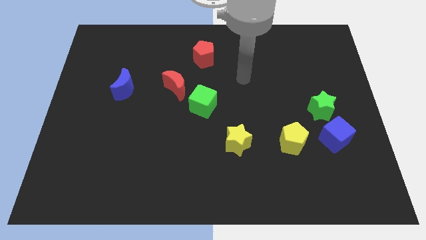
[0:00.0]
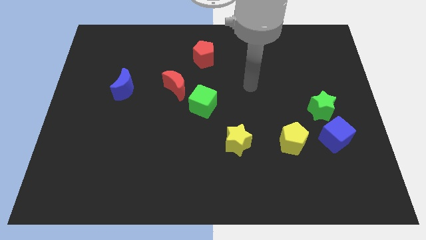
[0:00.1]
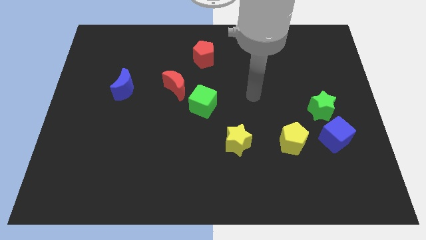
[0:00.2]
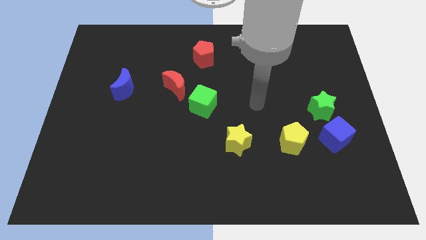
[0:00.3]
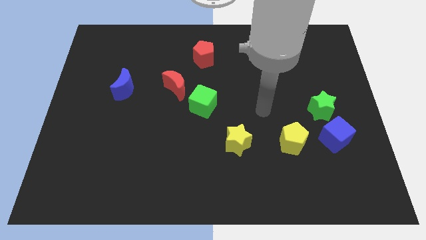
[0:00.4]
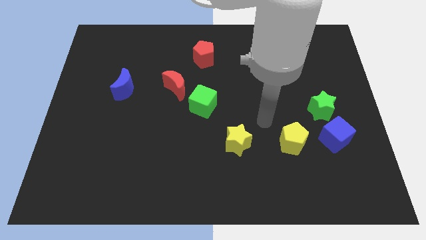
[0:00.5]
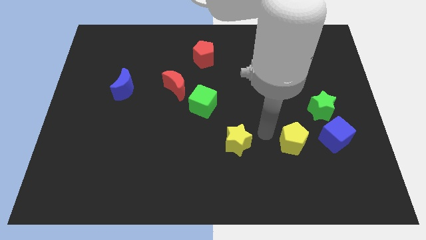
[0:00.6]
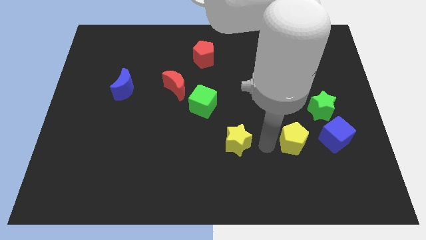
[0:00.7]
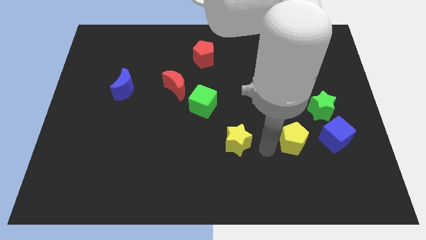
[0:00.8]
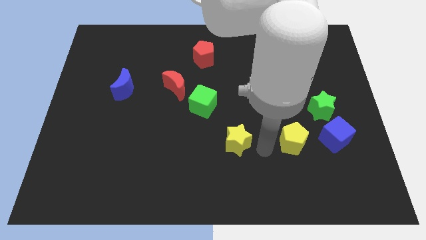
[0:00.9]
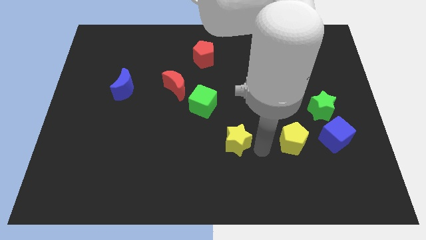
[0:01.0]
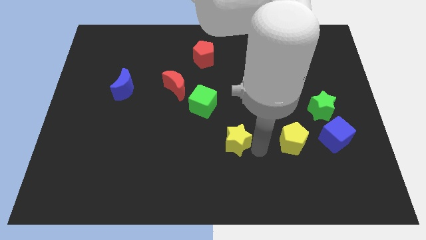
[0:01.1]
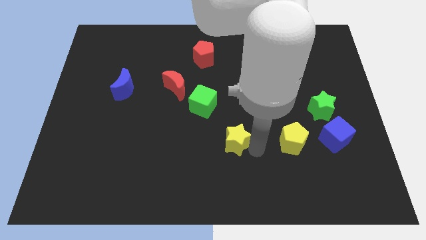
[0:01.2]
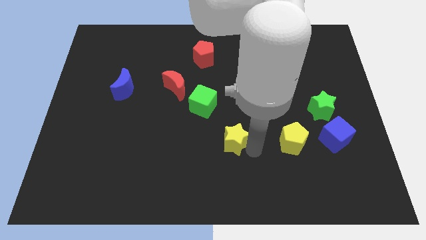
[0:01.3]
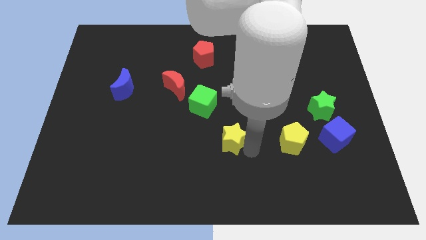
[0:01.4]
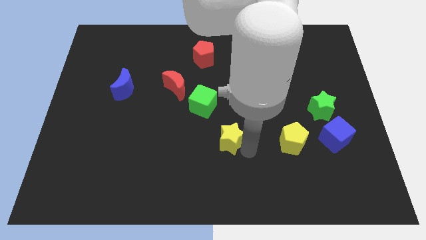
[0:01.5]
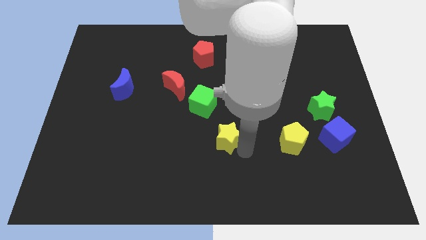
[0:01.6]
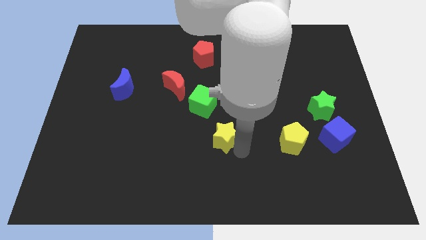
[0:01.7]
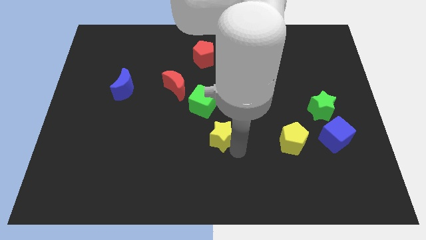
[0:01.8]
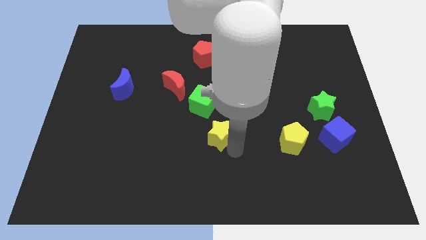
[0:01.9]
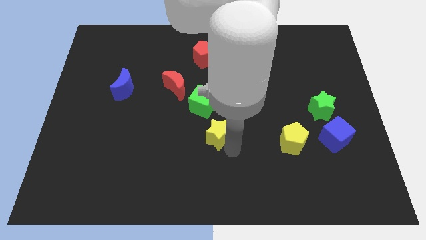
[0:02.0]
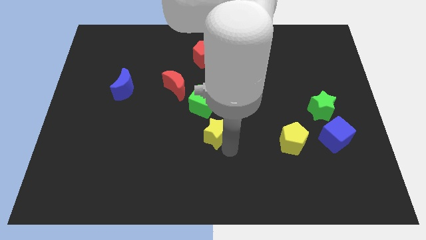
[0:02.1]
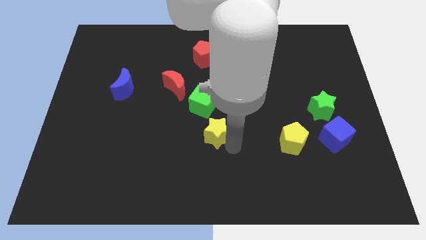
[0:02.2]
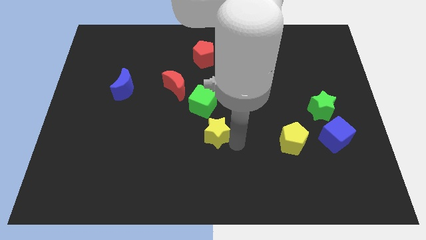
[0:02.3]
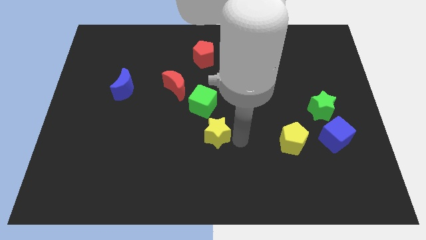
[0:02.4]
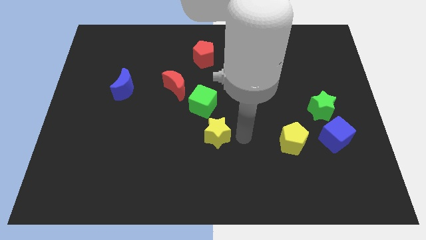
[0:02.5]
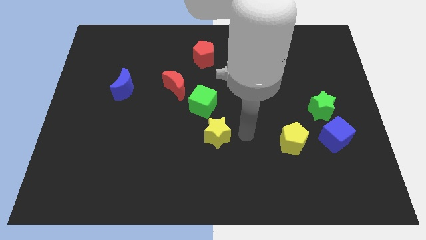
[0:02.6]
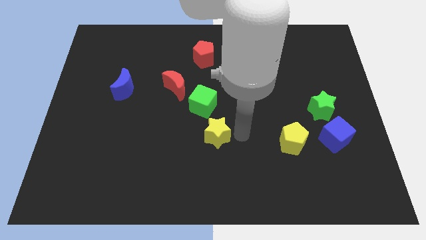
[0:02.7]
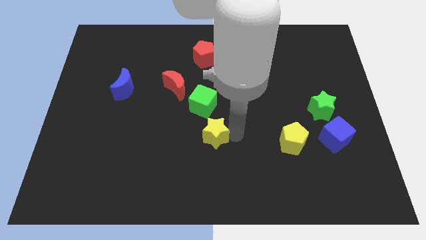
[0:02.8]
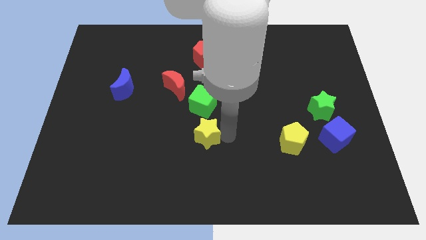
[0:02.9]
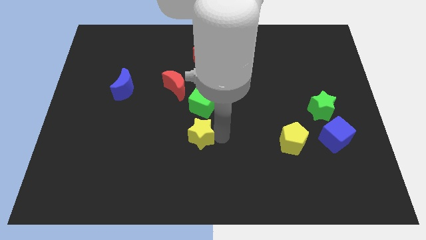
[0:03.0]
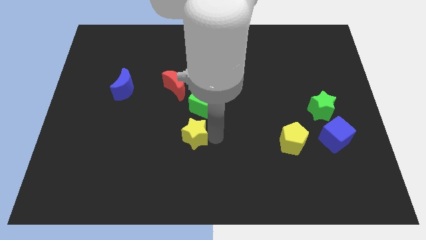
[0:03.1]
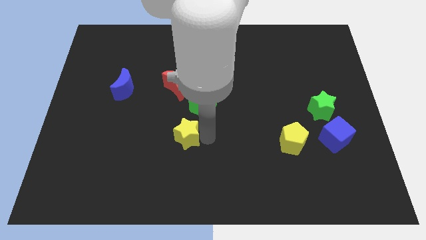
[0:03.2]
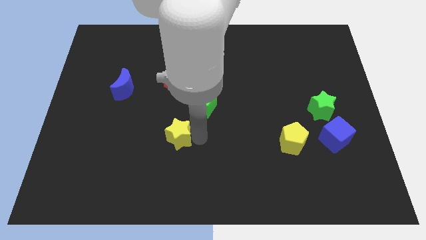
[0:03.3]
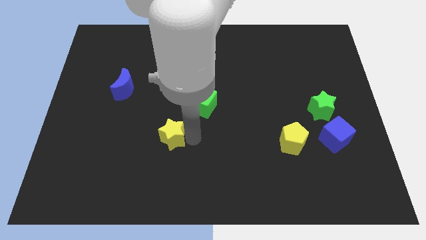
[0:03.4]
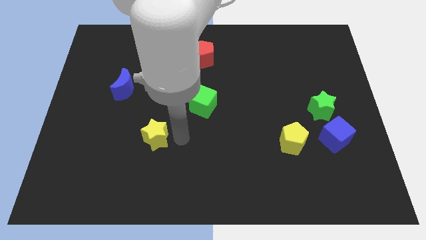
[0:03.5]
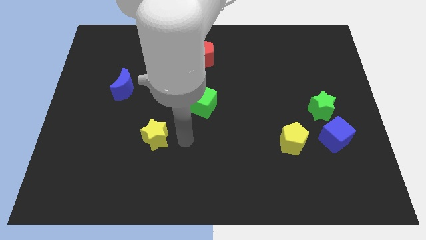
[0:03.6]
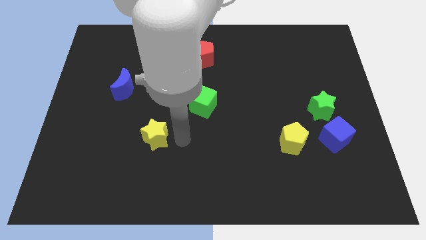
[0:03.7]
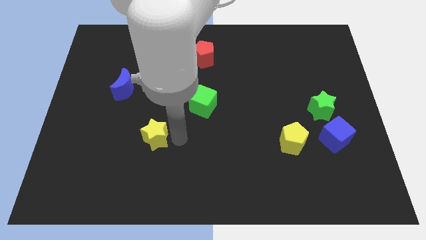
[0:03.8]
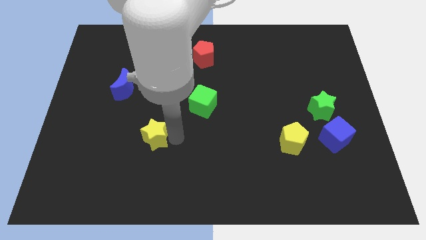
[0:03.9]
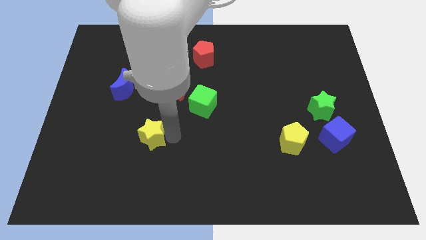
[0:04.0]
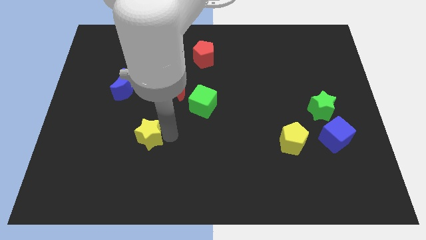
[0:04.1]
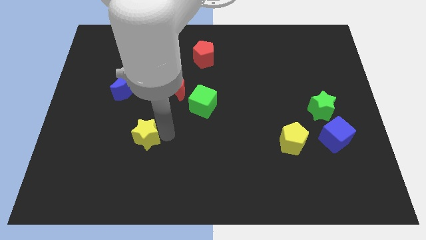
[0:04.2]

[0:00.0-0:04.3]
push the yellow star left

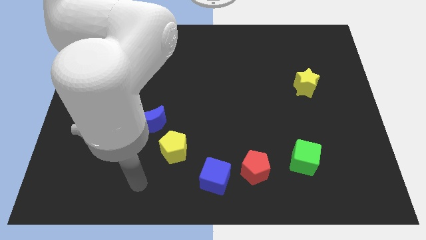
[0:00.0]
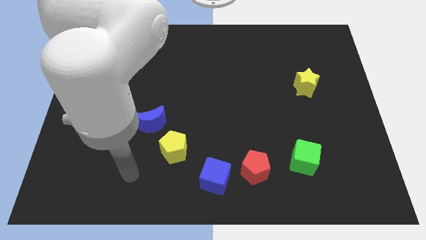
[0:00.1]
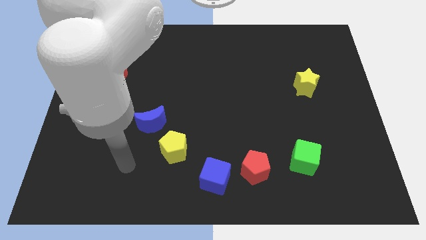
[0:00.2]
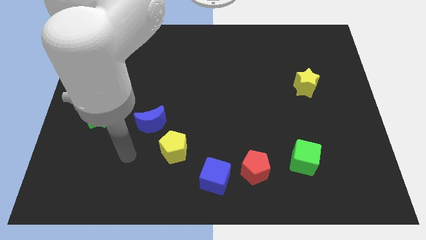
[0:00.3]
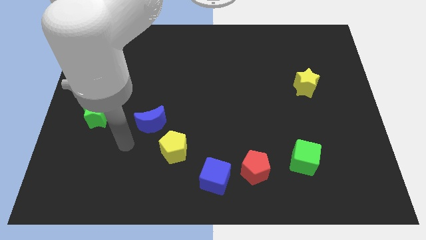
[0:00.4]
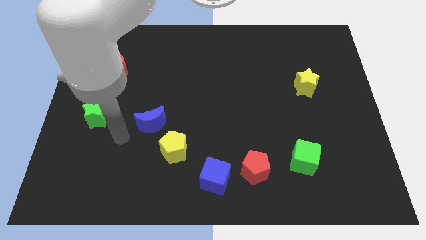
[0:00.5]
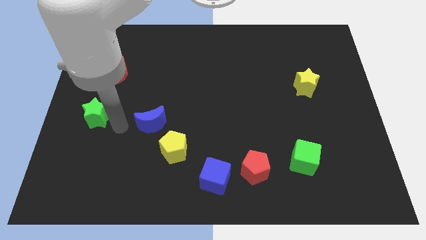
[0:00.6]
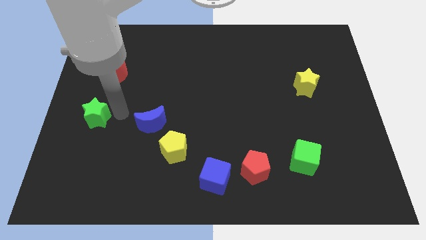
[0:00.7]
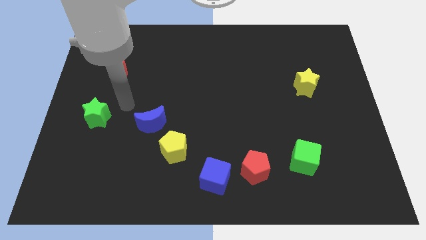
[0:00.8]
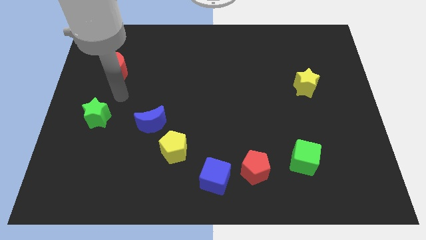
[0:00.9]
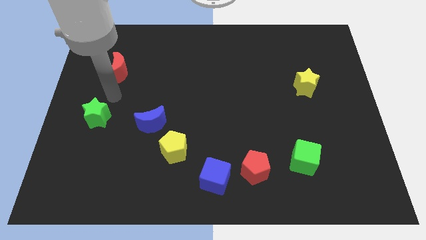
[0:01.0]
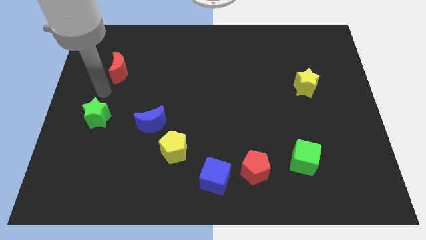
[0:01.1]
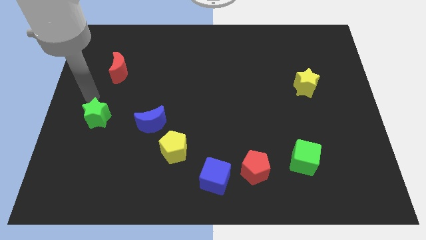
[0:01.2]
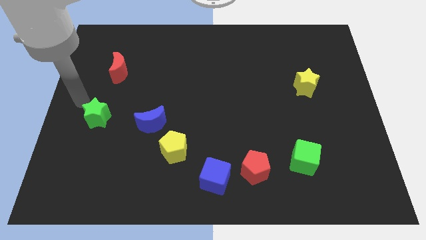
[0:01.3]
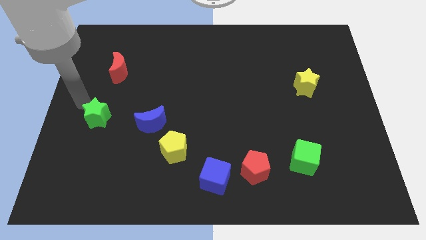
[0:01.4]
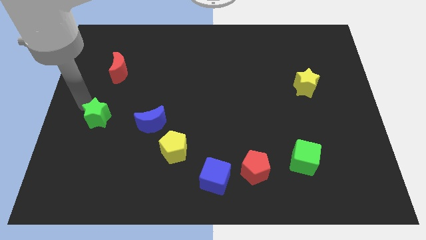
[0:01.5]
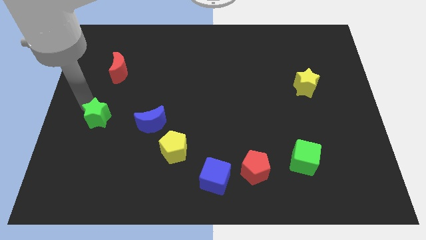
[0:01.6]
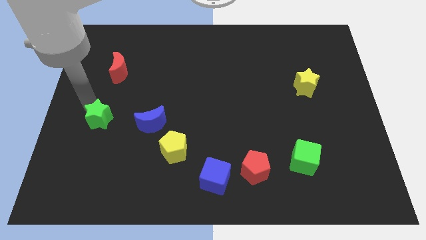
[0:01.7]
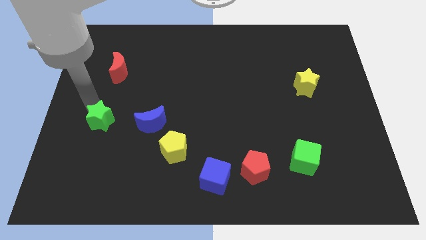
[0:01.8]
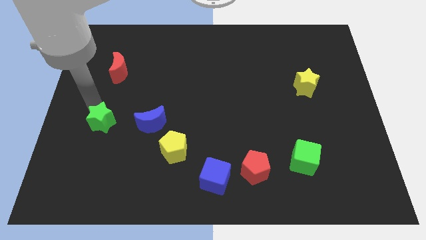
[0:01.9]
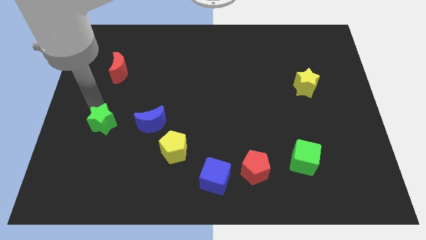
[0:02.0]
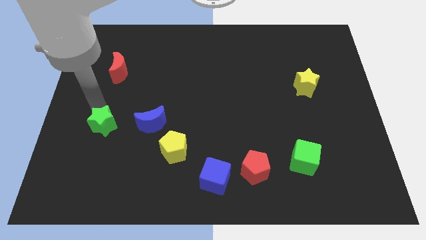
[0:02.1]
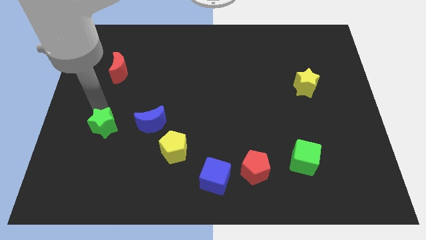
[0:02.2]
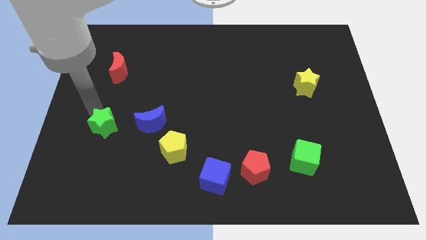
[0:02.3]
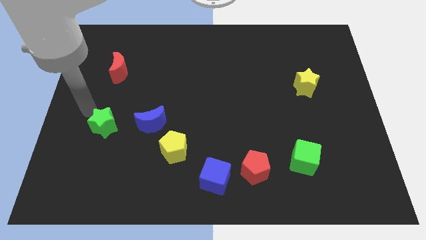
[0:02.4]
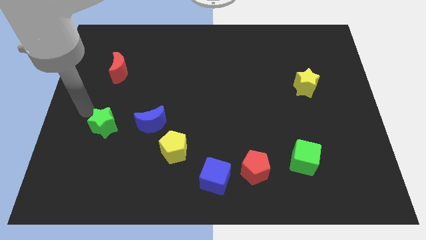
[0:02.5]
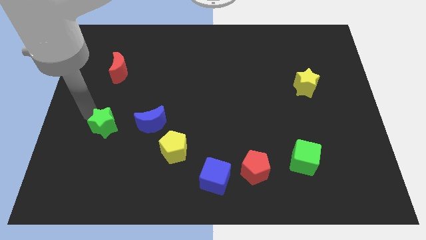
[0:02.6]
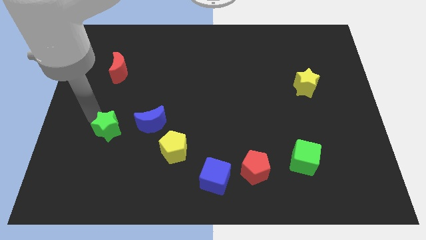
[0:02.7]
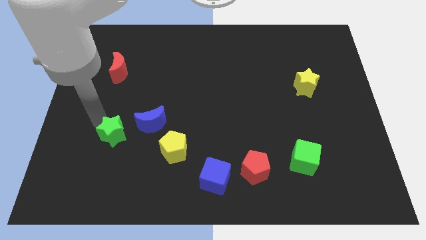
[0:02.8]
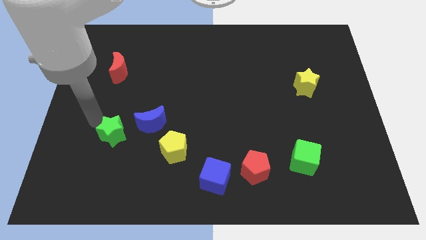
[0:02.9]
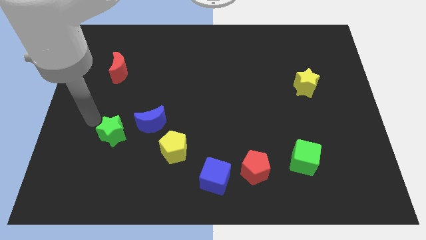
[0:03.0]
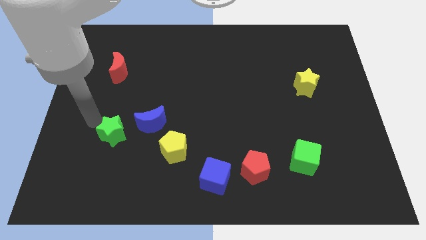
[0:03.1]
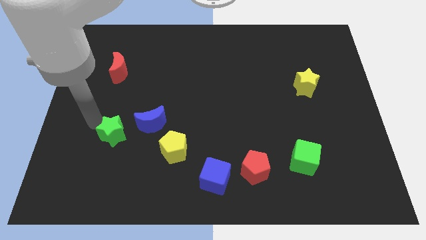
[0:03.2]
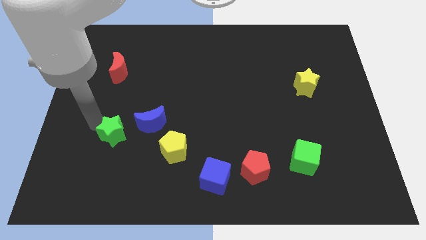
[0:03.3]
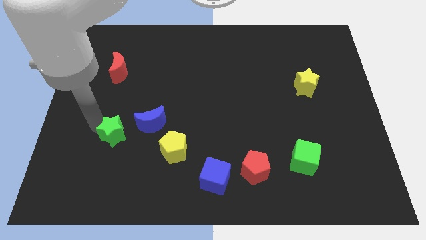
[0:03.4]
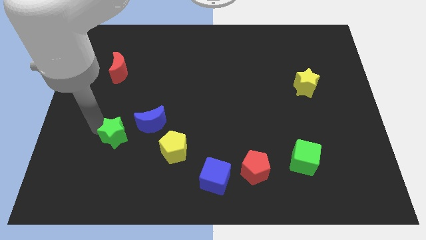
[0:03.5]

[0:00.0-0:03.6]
slide the green star slightly downwards and to the right
